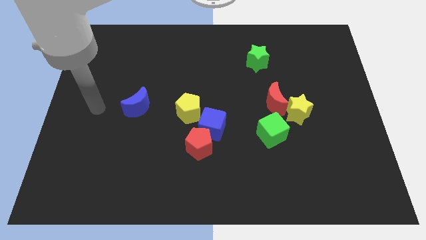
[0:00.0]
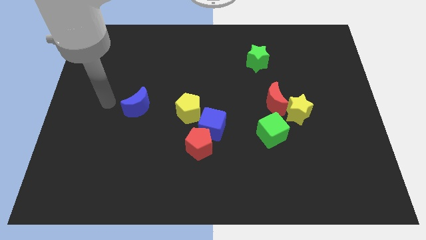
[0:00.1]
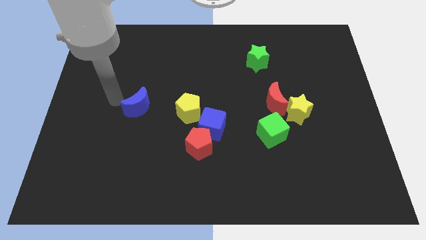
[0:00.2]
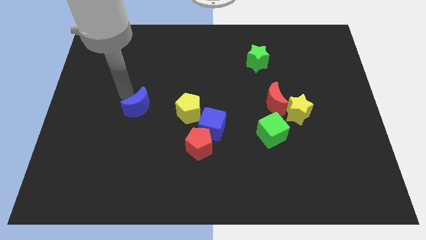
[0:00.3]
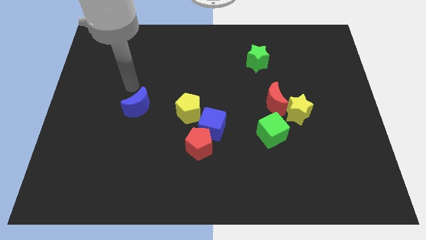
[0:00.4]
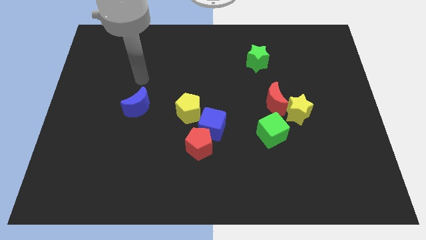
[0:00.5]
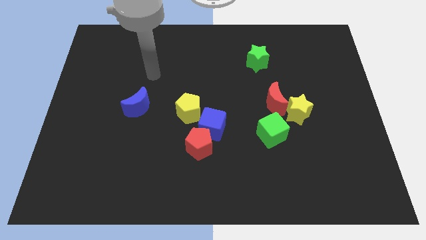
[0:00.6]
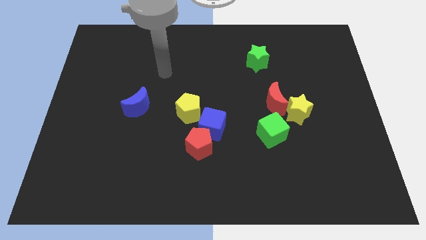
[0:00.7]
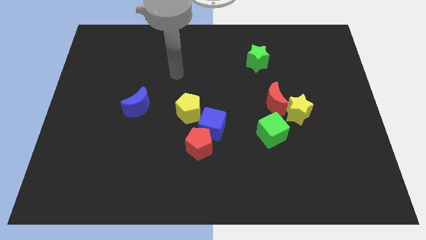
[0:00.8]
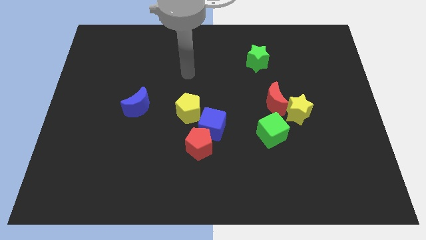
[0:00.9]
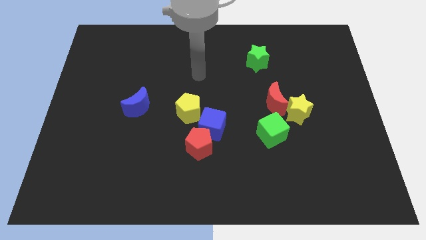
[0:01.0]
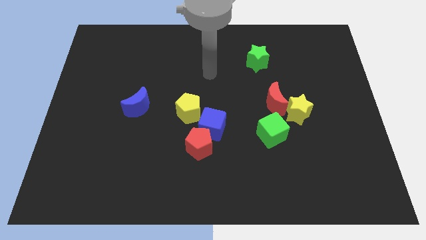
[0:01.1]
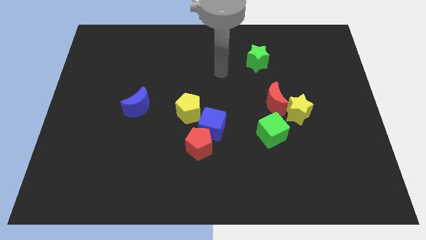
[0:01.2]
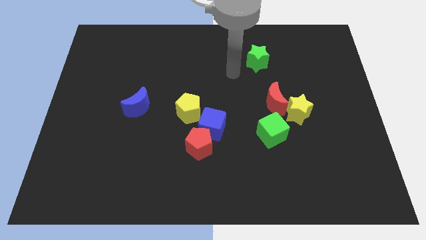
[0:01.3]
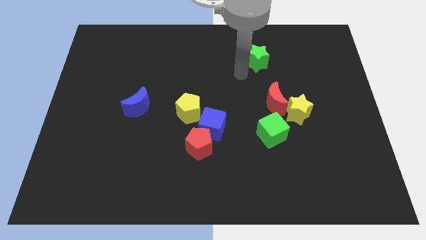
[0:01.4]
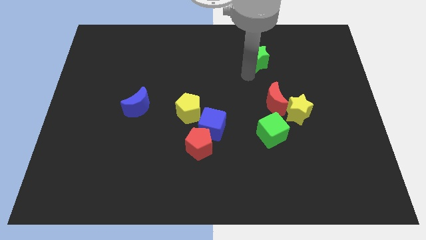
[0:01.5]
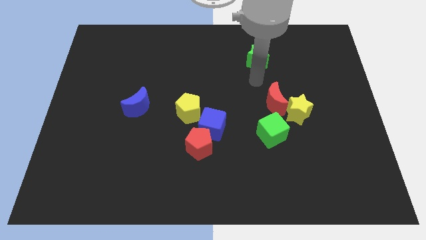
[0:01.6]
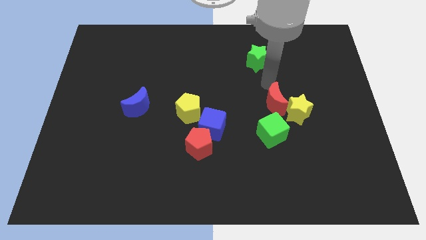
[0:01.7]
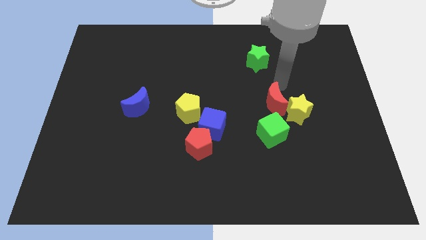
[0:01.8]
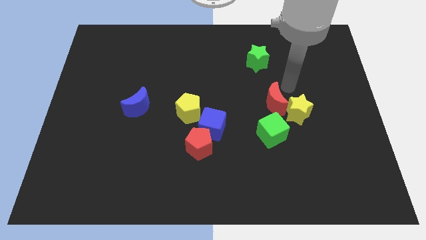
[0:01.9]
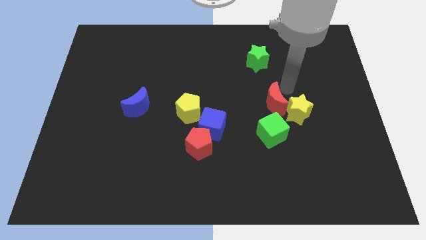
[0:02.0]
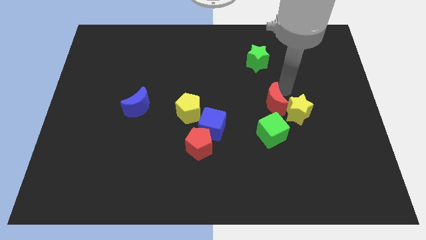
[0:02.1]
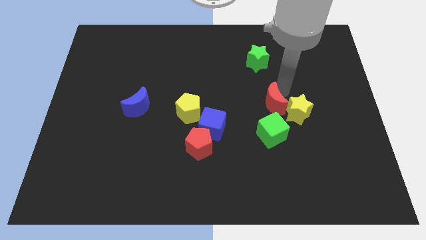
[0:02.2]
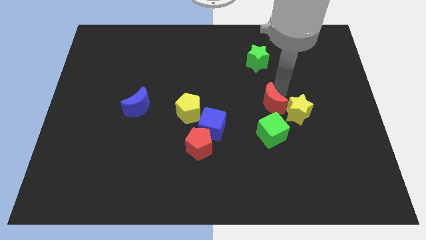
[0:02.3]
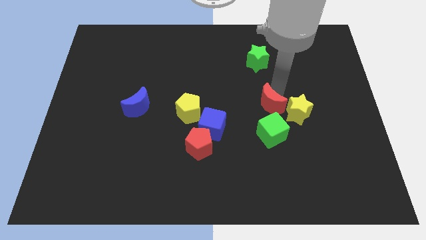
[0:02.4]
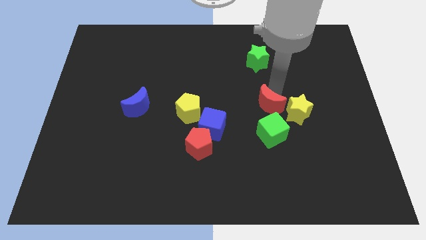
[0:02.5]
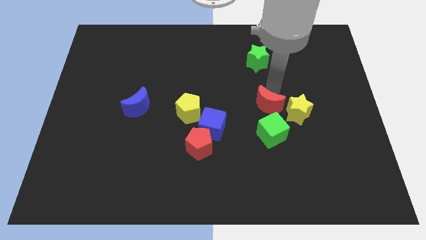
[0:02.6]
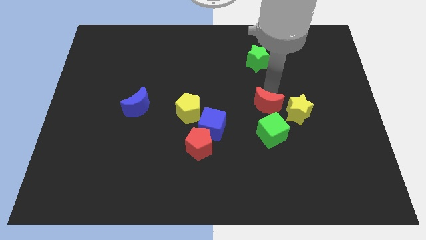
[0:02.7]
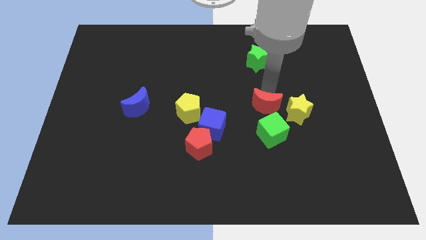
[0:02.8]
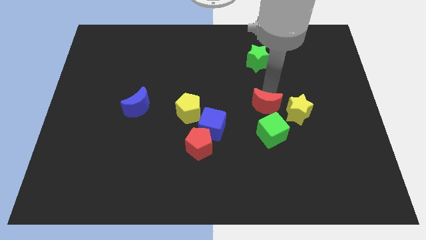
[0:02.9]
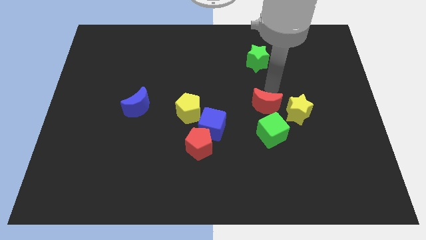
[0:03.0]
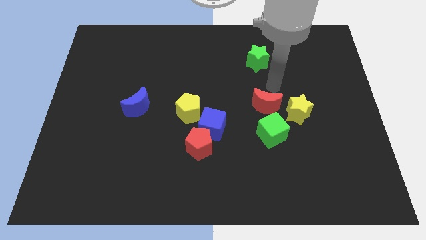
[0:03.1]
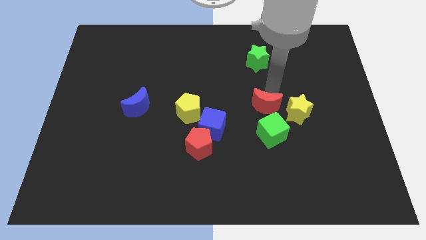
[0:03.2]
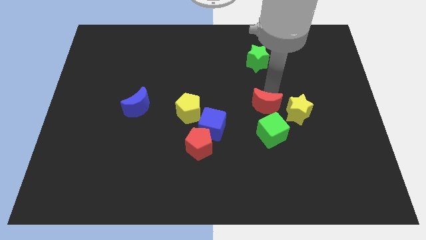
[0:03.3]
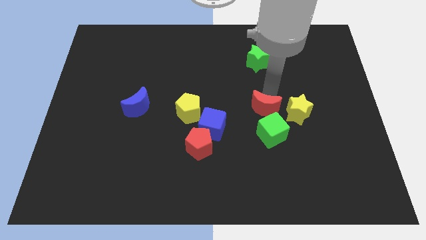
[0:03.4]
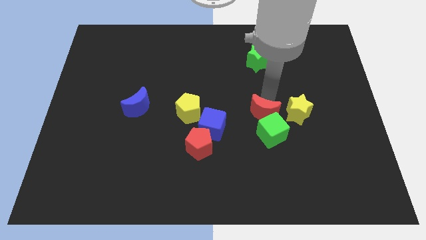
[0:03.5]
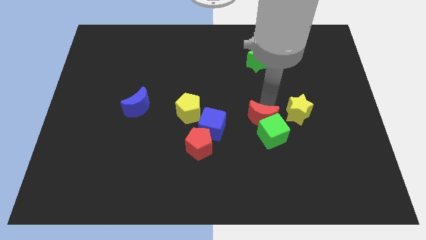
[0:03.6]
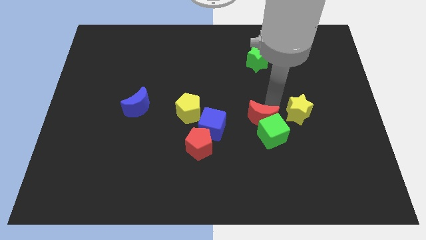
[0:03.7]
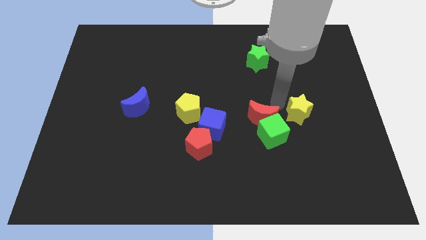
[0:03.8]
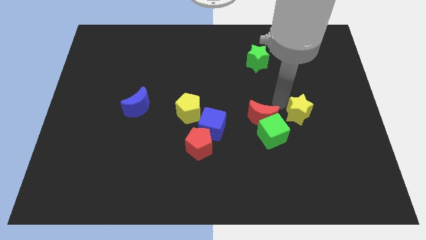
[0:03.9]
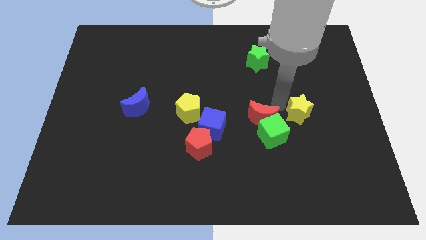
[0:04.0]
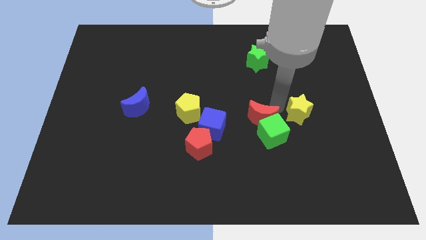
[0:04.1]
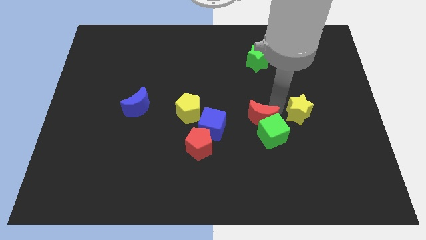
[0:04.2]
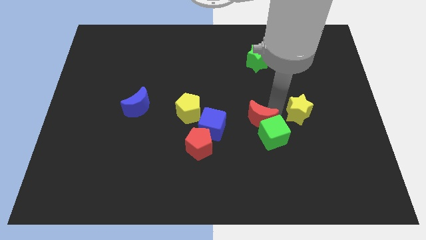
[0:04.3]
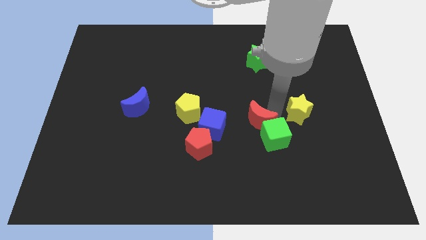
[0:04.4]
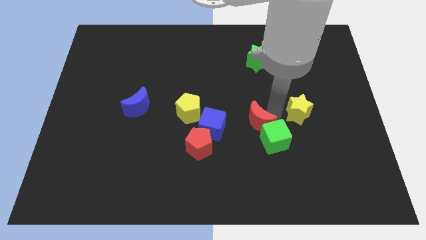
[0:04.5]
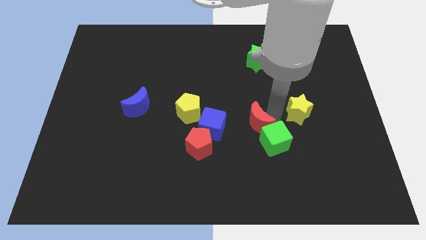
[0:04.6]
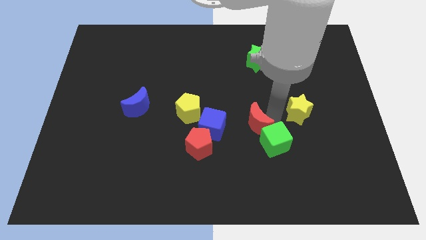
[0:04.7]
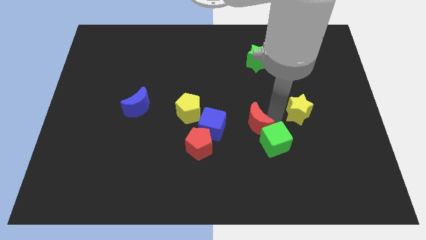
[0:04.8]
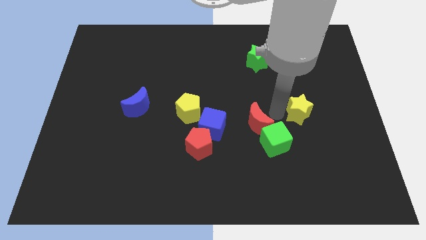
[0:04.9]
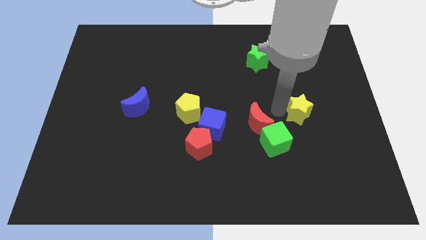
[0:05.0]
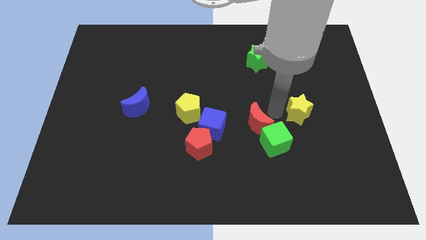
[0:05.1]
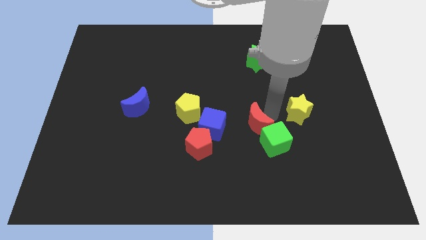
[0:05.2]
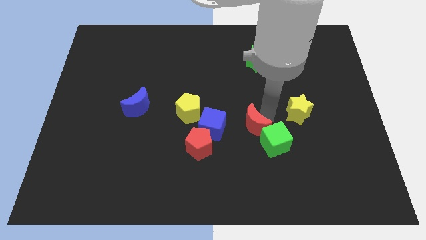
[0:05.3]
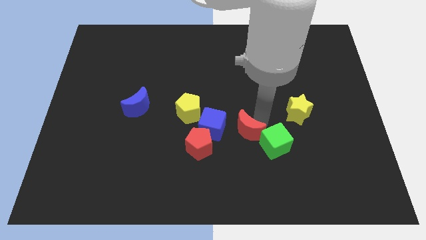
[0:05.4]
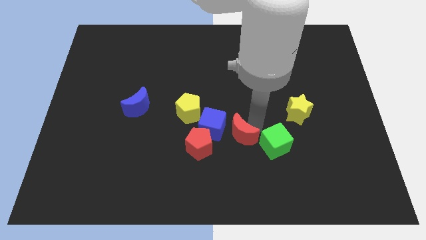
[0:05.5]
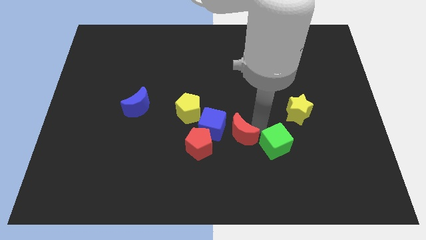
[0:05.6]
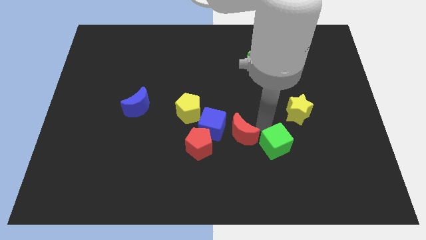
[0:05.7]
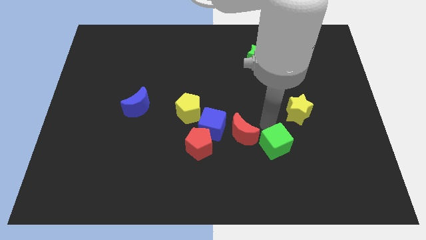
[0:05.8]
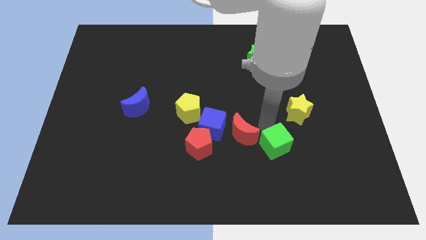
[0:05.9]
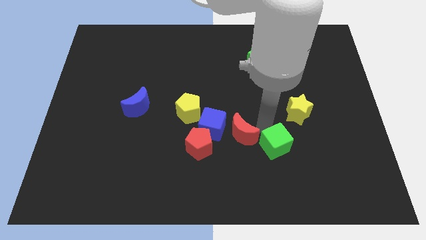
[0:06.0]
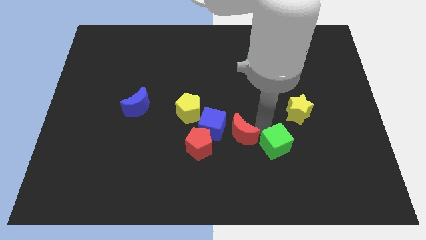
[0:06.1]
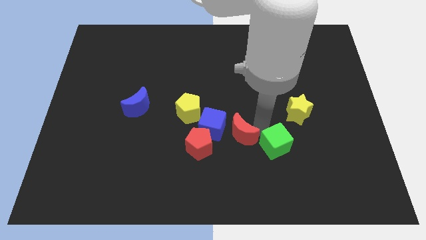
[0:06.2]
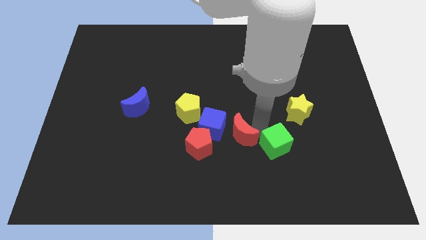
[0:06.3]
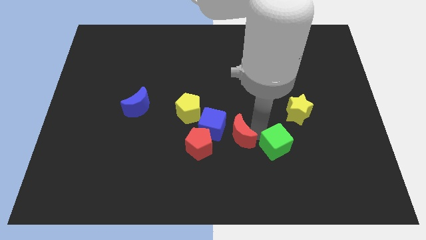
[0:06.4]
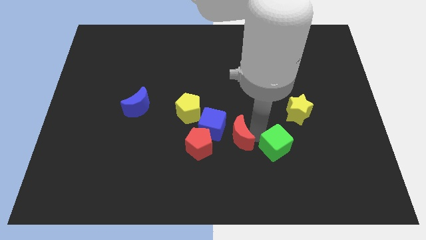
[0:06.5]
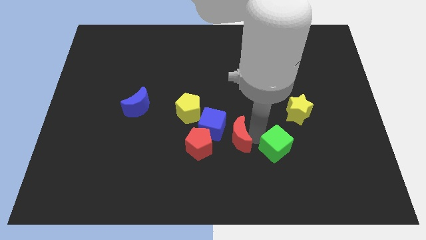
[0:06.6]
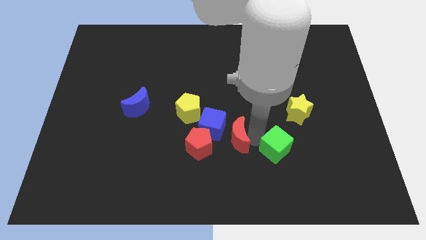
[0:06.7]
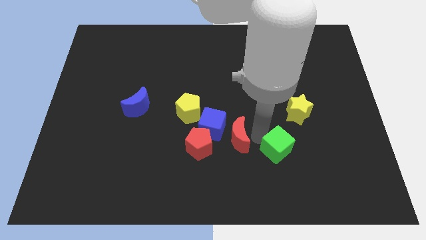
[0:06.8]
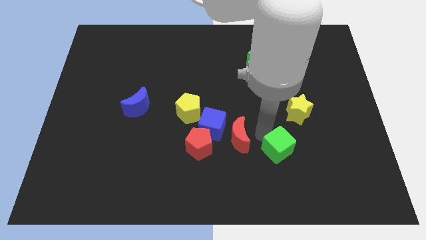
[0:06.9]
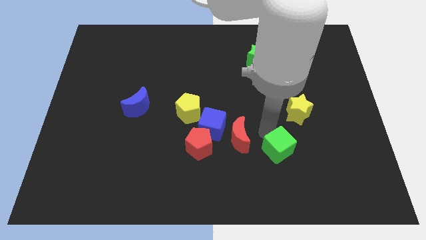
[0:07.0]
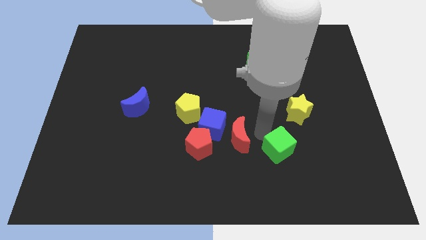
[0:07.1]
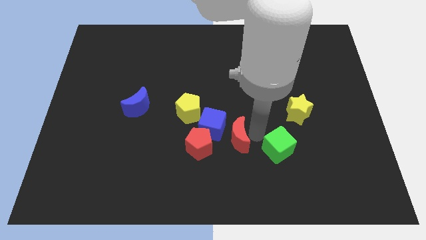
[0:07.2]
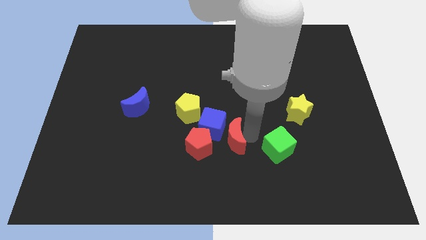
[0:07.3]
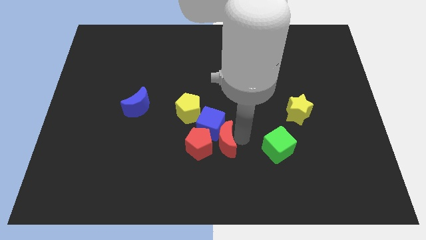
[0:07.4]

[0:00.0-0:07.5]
slide the red moon next to the red pentagon

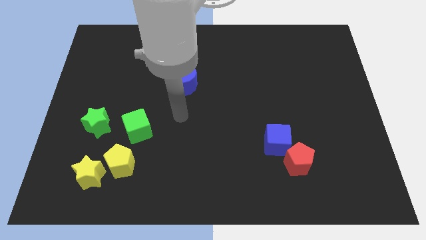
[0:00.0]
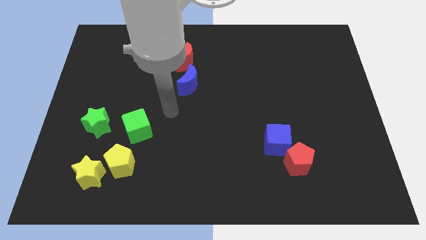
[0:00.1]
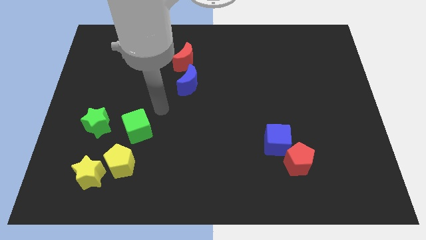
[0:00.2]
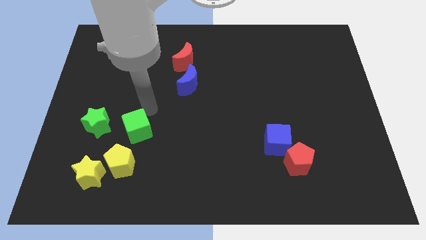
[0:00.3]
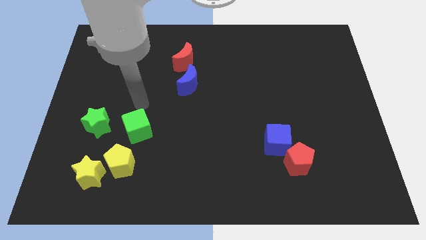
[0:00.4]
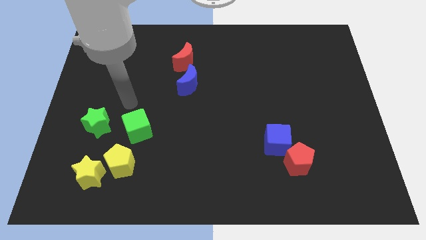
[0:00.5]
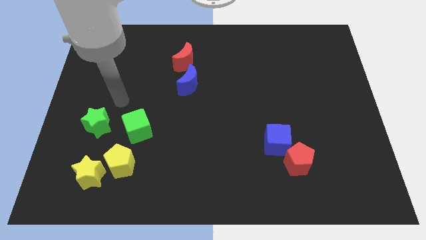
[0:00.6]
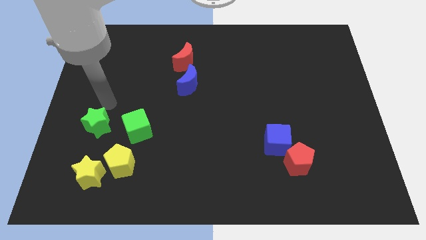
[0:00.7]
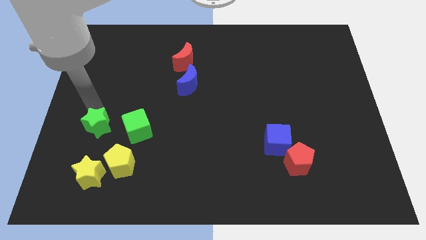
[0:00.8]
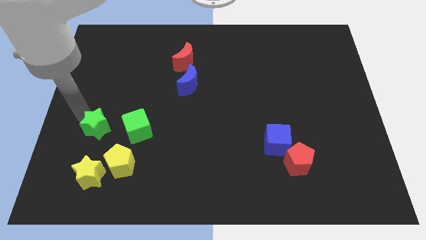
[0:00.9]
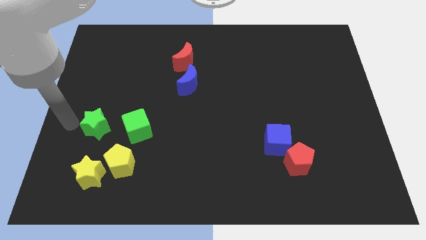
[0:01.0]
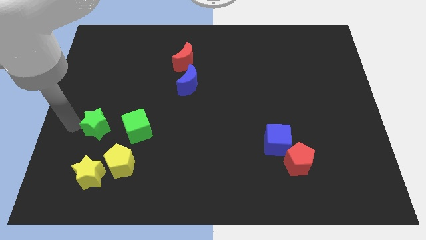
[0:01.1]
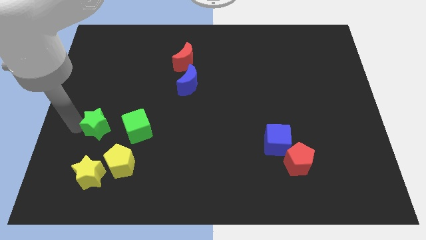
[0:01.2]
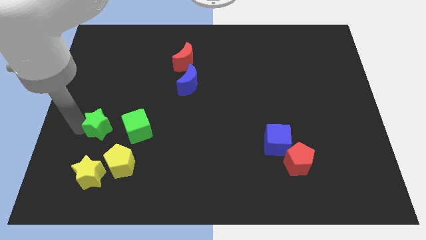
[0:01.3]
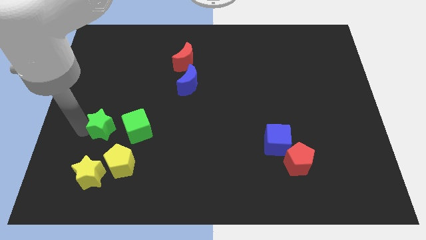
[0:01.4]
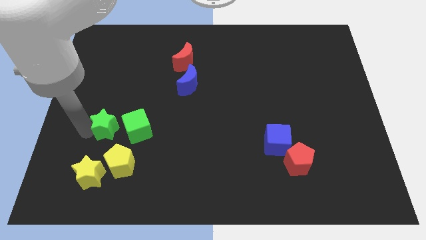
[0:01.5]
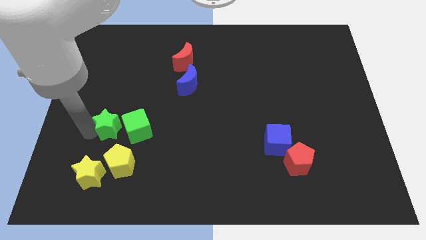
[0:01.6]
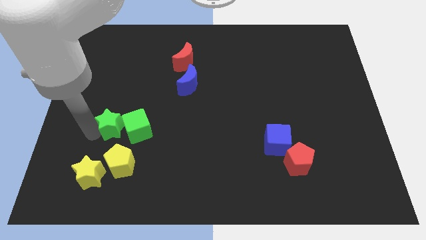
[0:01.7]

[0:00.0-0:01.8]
slide the green star to the green cube
